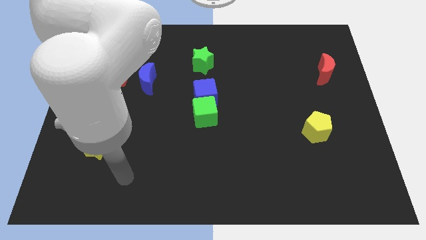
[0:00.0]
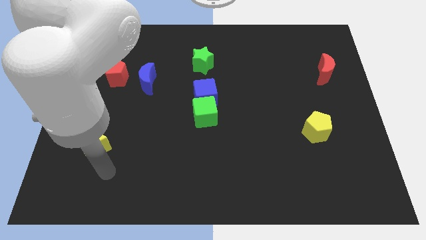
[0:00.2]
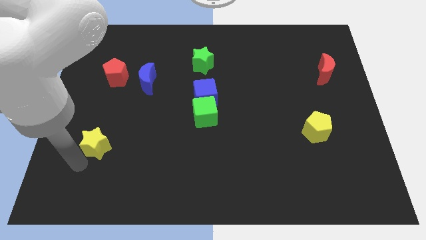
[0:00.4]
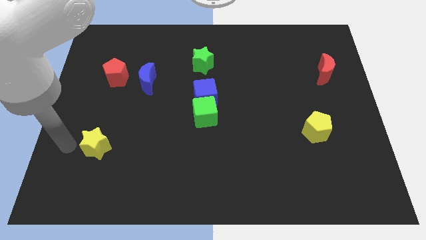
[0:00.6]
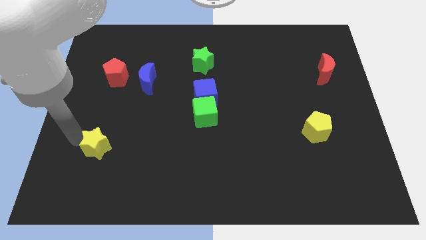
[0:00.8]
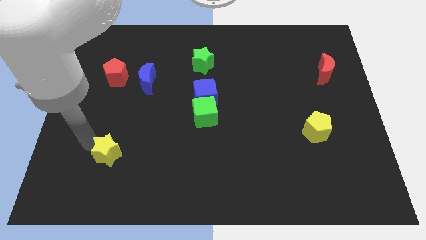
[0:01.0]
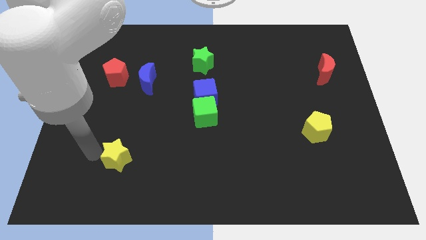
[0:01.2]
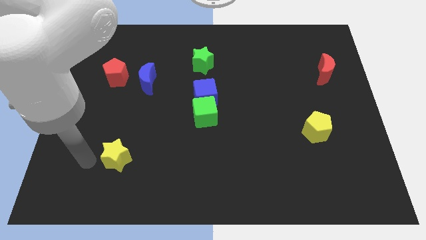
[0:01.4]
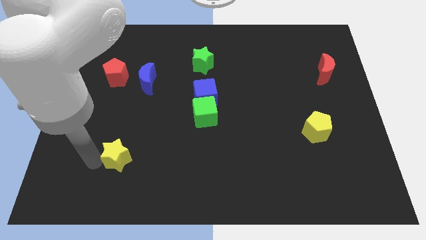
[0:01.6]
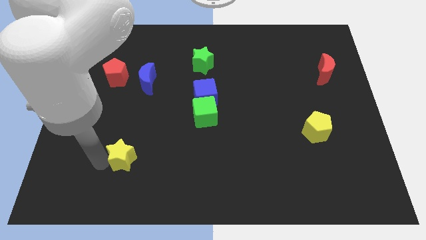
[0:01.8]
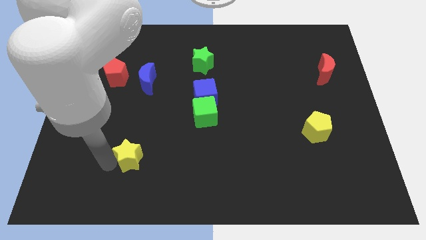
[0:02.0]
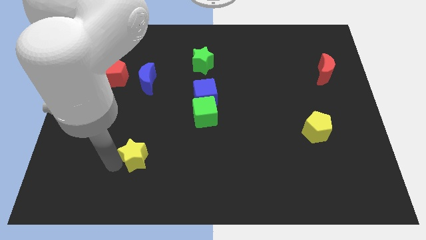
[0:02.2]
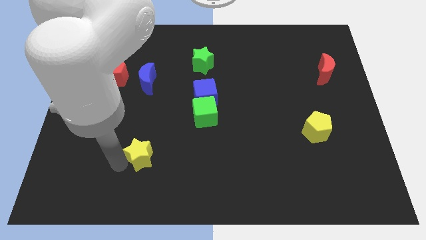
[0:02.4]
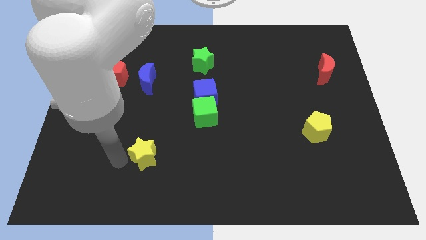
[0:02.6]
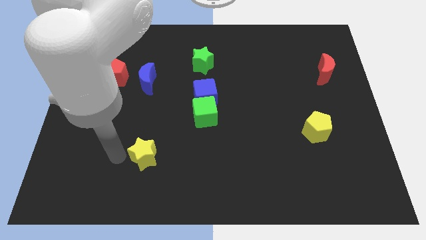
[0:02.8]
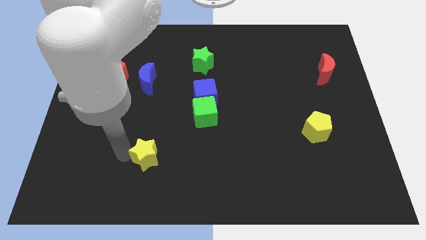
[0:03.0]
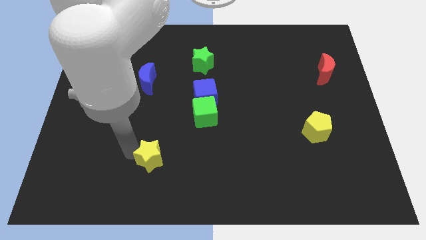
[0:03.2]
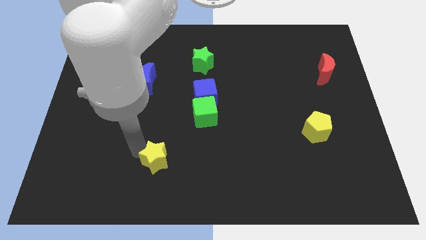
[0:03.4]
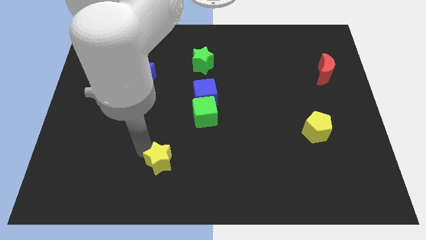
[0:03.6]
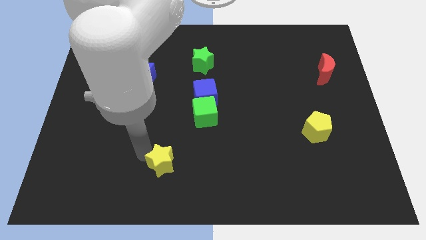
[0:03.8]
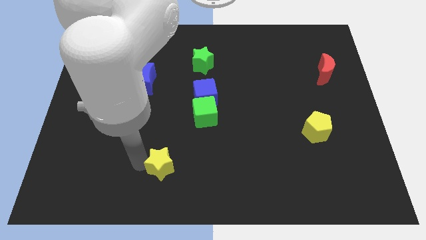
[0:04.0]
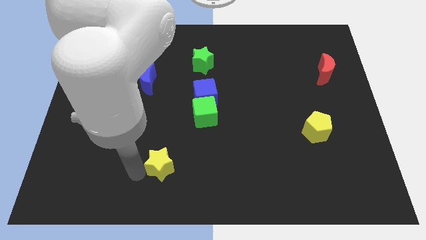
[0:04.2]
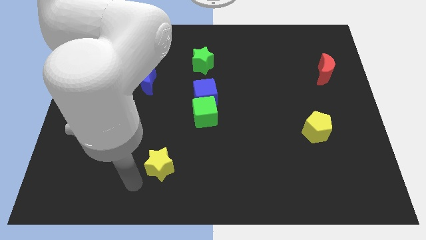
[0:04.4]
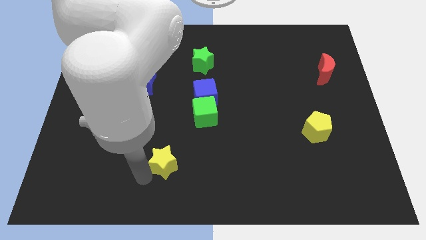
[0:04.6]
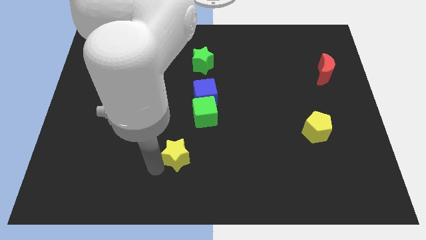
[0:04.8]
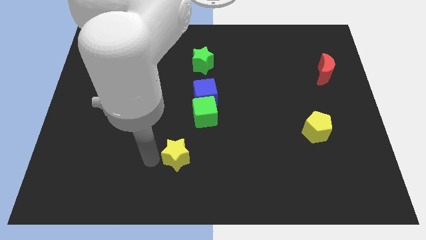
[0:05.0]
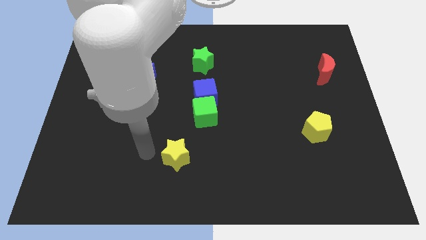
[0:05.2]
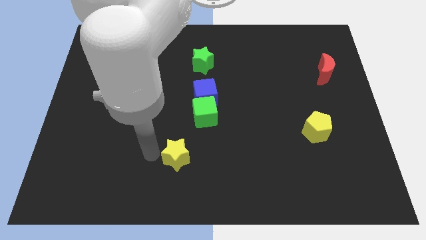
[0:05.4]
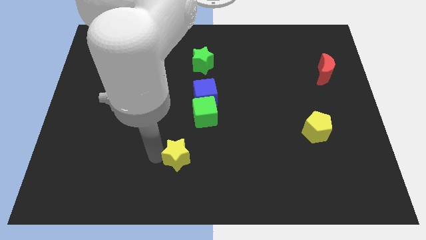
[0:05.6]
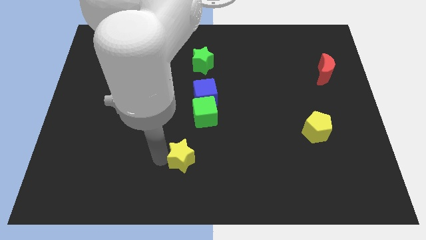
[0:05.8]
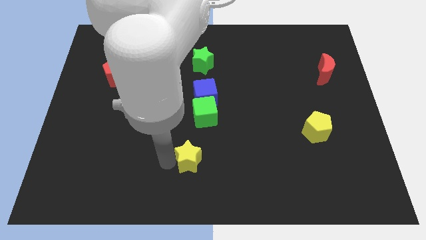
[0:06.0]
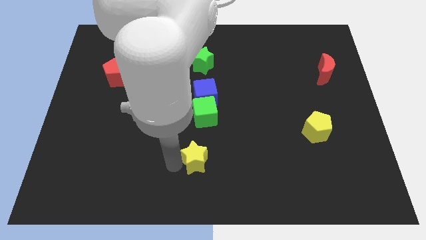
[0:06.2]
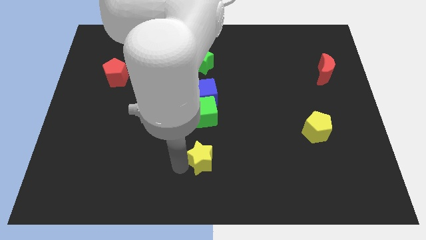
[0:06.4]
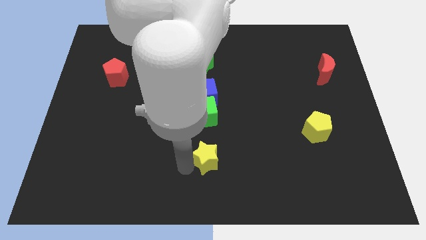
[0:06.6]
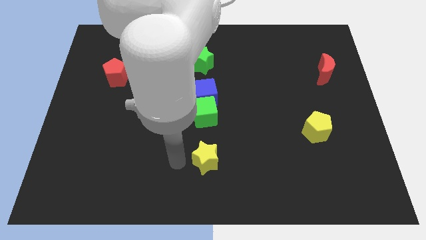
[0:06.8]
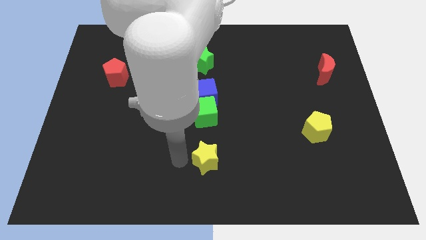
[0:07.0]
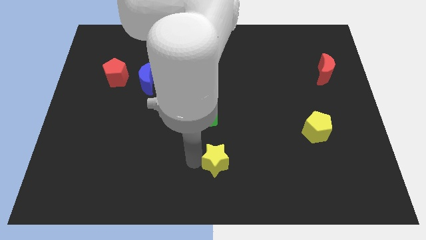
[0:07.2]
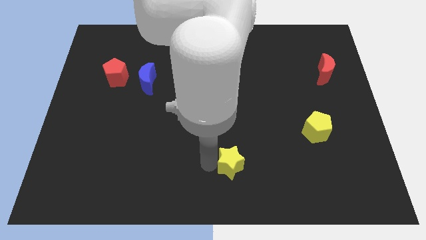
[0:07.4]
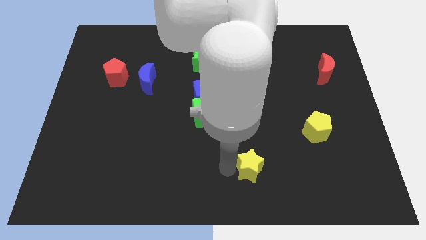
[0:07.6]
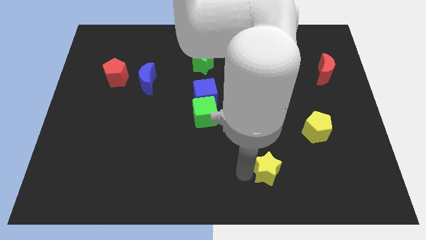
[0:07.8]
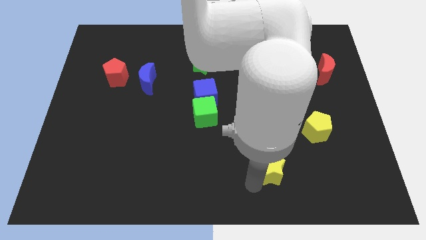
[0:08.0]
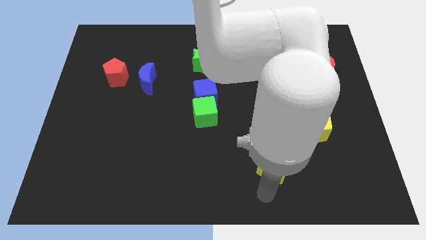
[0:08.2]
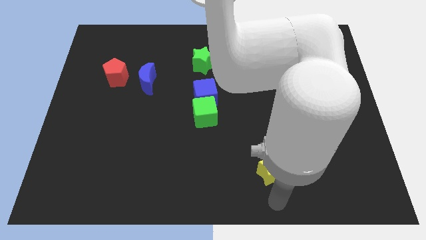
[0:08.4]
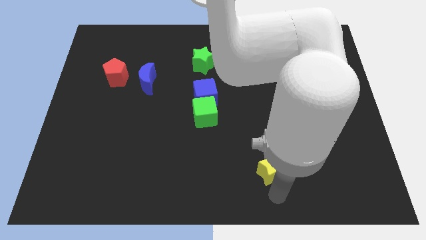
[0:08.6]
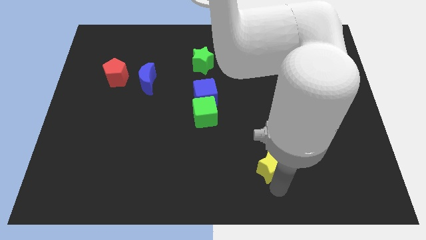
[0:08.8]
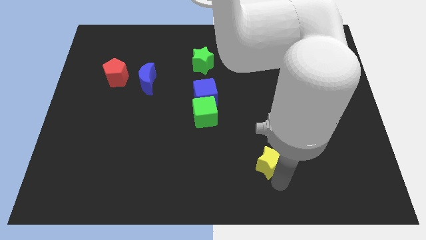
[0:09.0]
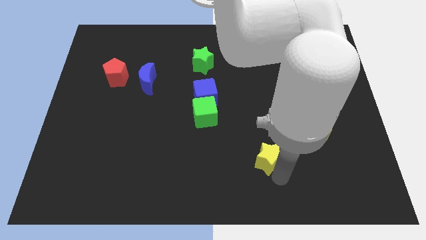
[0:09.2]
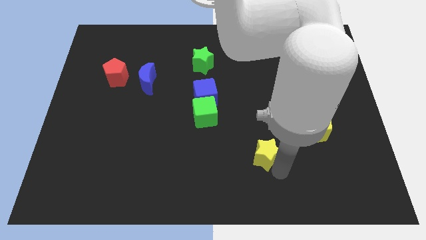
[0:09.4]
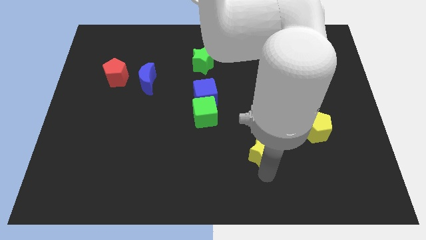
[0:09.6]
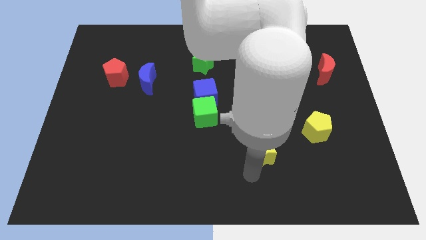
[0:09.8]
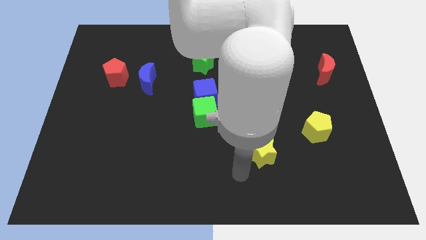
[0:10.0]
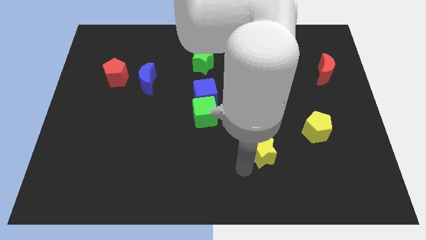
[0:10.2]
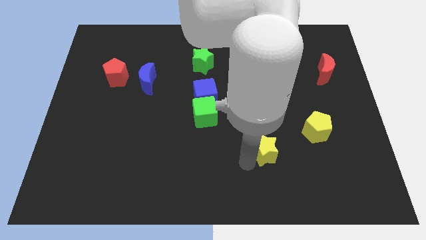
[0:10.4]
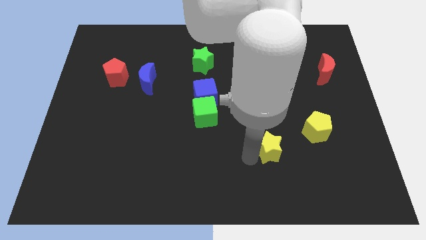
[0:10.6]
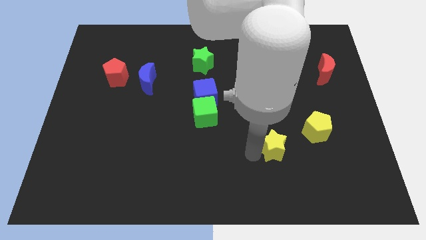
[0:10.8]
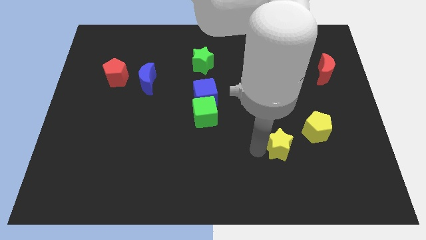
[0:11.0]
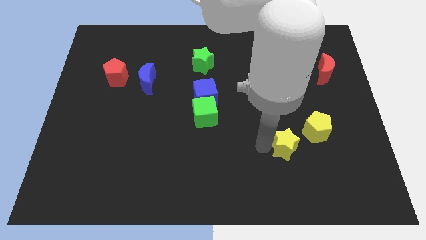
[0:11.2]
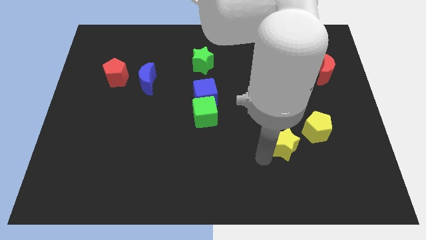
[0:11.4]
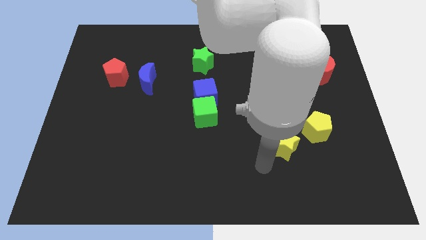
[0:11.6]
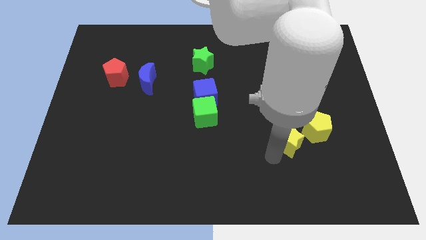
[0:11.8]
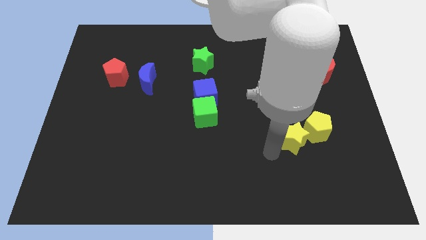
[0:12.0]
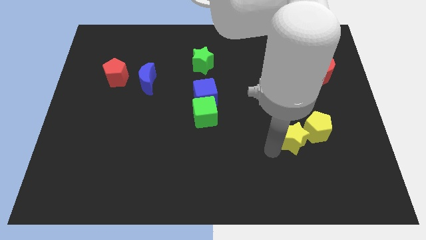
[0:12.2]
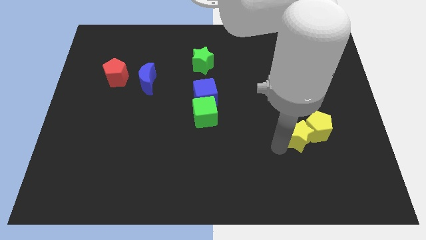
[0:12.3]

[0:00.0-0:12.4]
push the yellow star close to the yellow pentagon
